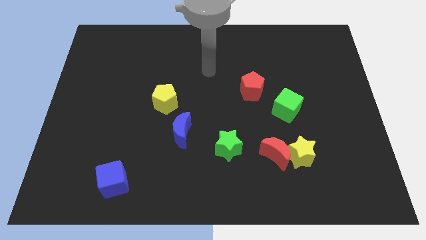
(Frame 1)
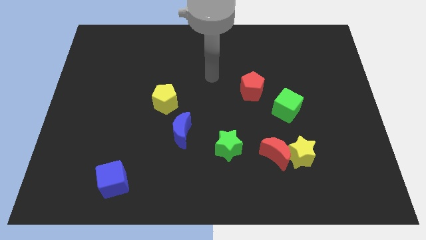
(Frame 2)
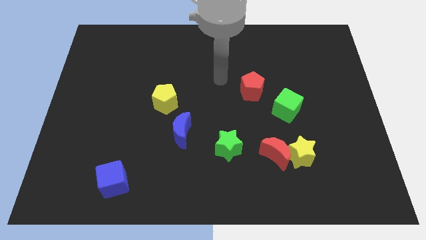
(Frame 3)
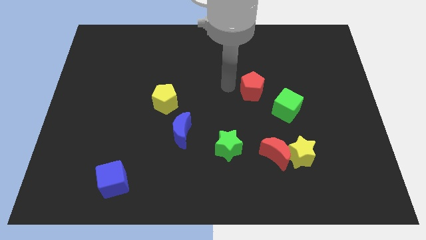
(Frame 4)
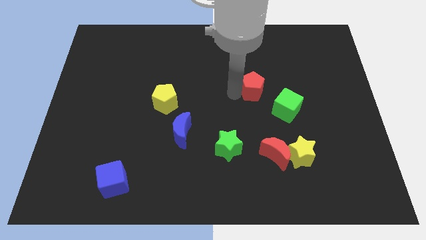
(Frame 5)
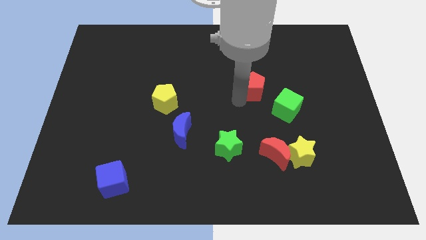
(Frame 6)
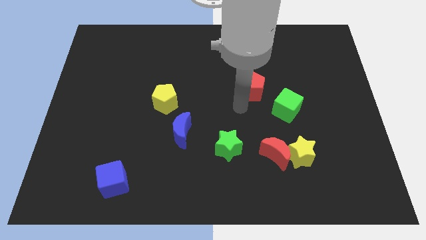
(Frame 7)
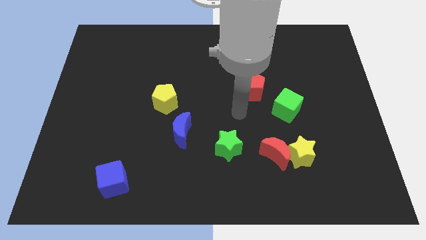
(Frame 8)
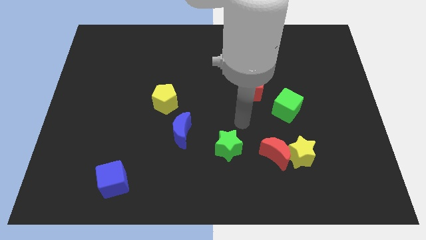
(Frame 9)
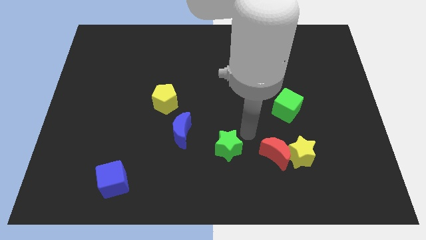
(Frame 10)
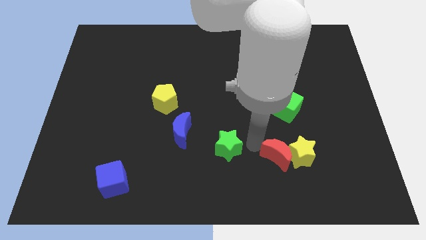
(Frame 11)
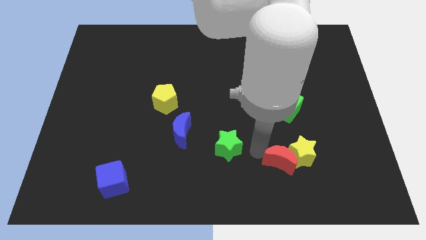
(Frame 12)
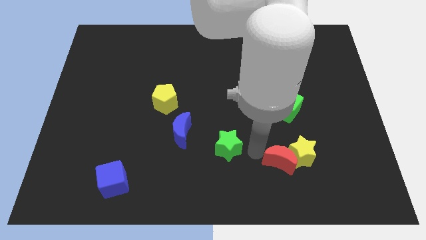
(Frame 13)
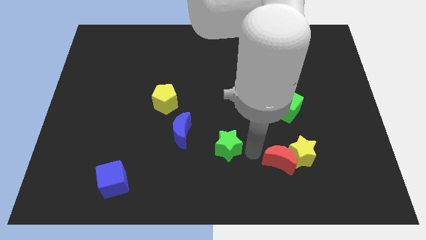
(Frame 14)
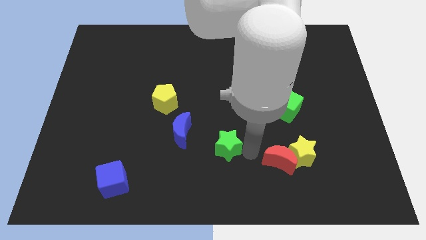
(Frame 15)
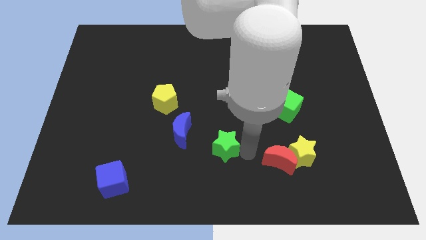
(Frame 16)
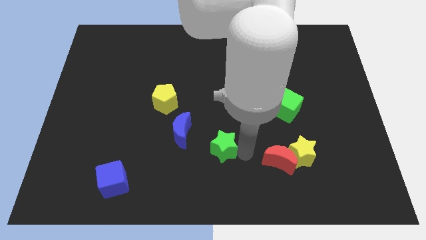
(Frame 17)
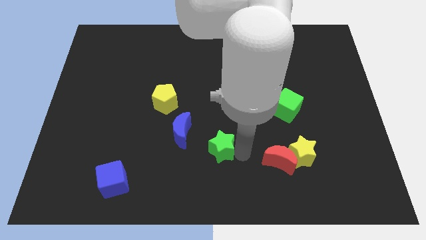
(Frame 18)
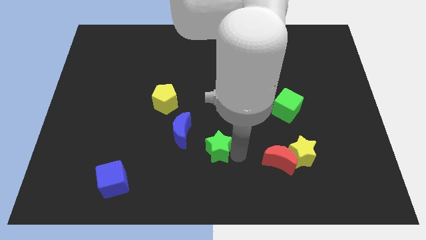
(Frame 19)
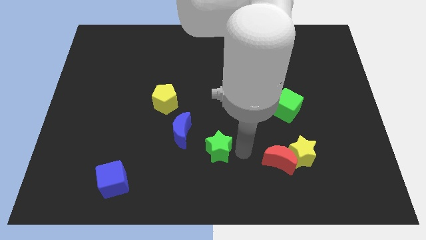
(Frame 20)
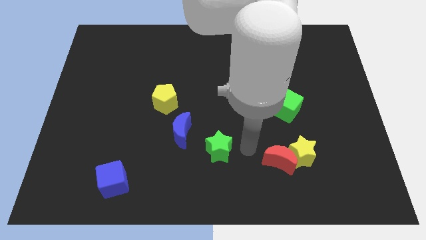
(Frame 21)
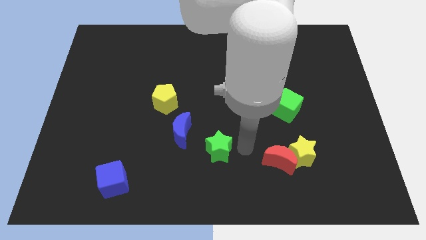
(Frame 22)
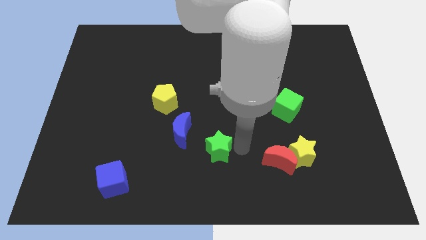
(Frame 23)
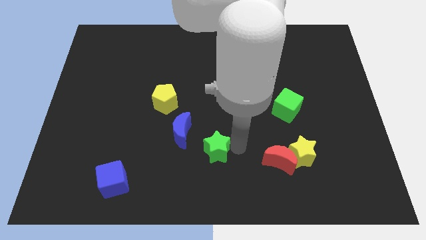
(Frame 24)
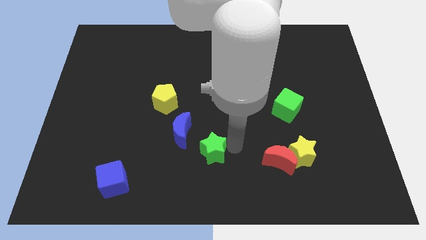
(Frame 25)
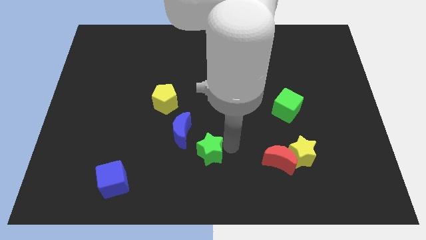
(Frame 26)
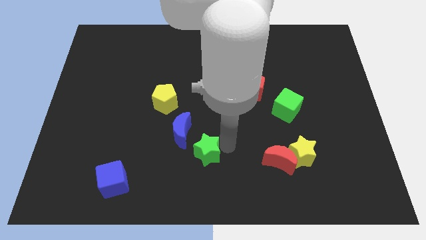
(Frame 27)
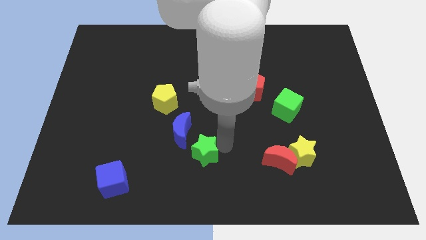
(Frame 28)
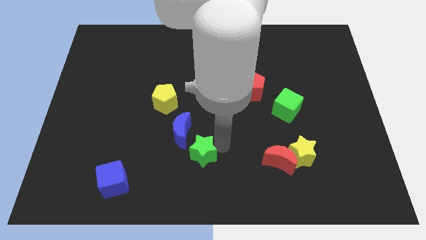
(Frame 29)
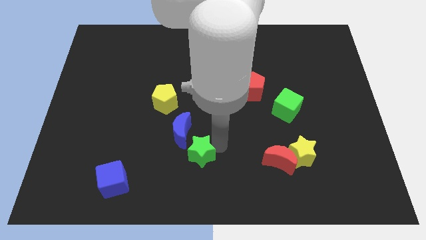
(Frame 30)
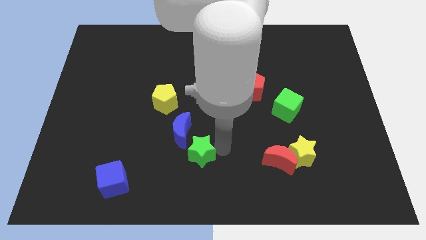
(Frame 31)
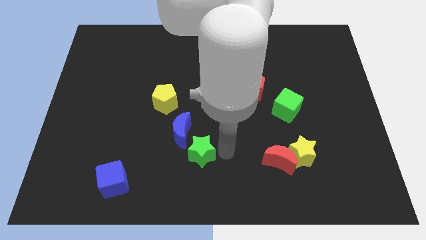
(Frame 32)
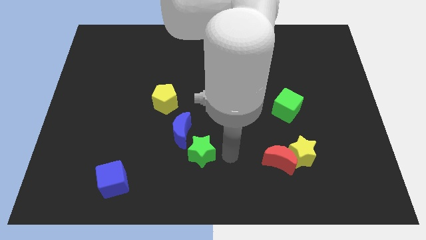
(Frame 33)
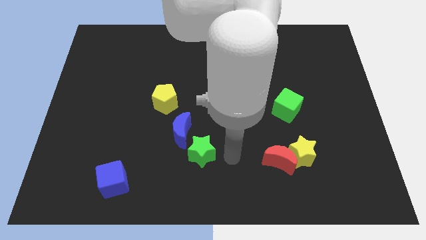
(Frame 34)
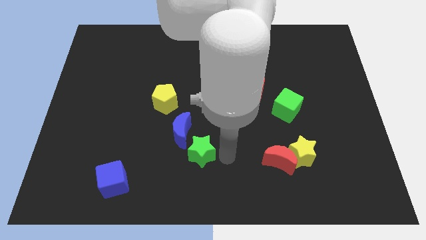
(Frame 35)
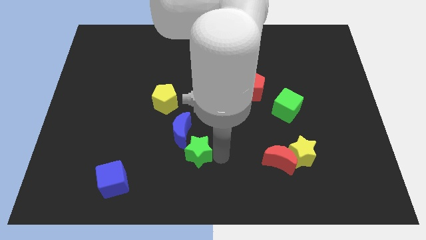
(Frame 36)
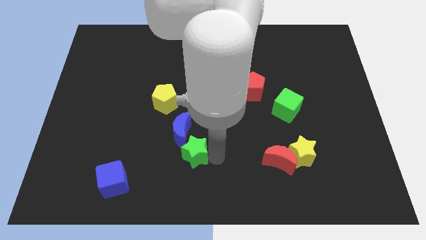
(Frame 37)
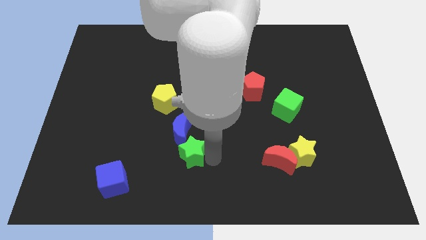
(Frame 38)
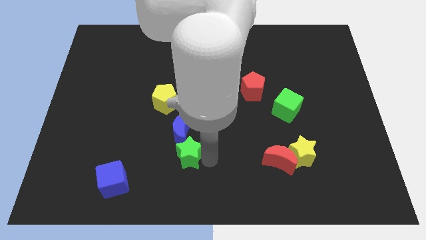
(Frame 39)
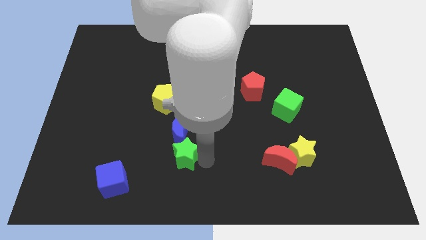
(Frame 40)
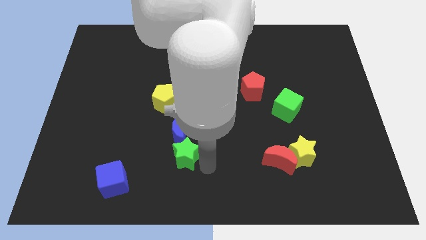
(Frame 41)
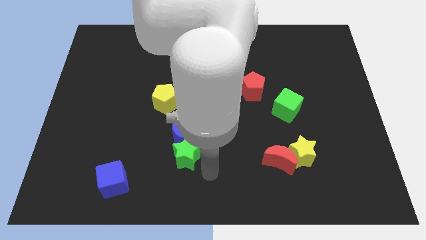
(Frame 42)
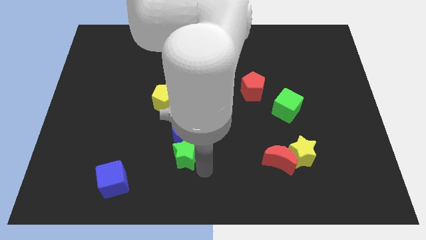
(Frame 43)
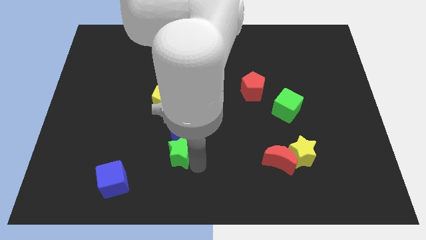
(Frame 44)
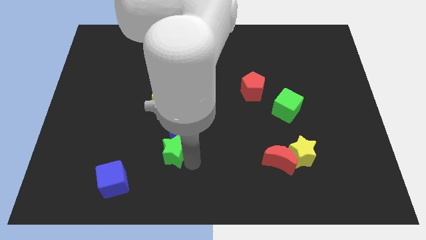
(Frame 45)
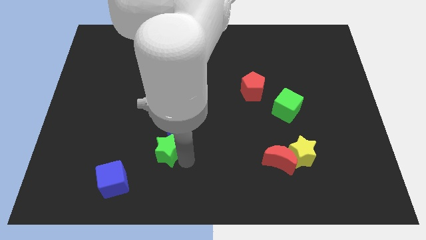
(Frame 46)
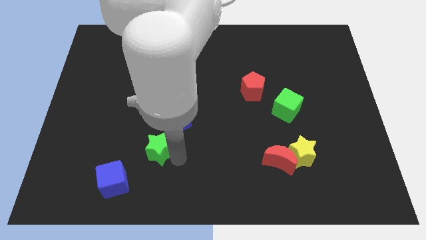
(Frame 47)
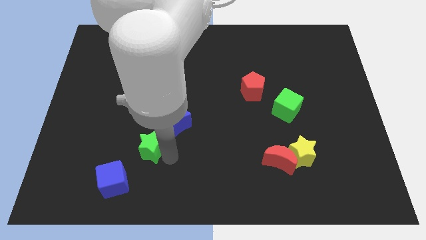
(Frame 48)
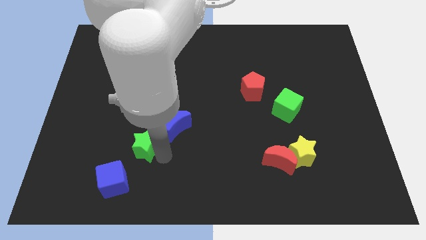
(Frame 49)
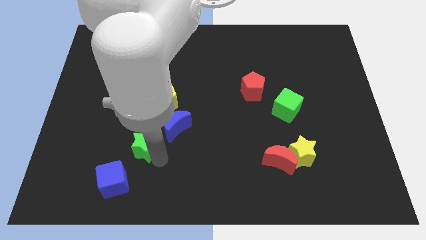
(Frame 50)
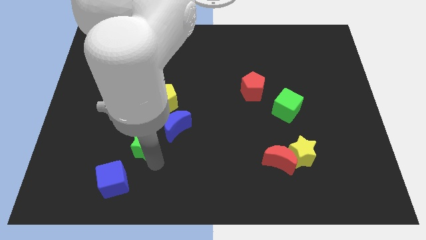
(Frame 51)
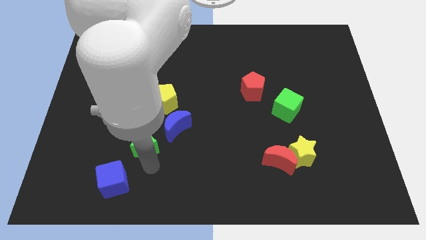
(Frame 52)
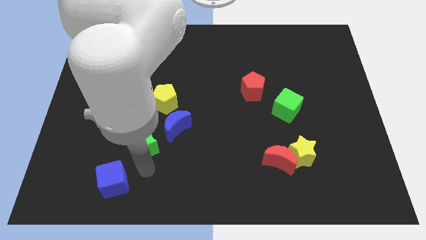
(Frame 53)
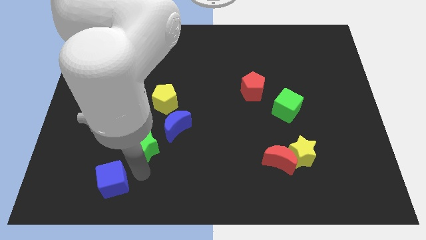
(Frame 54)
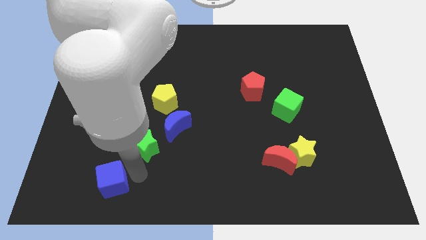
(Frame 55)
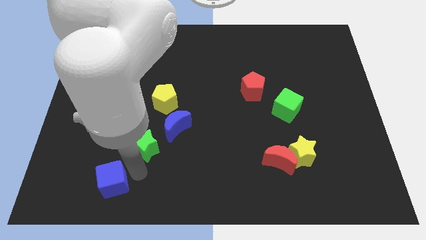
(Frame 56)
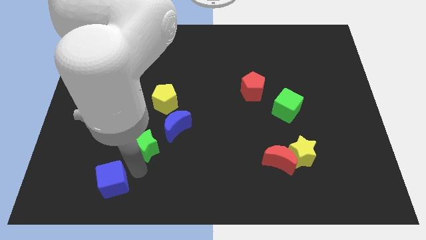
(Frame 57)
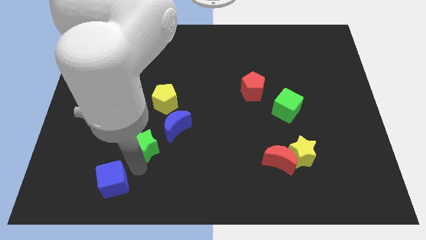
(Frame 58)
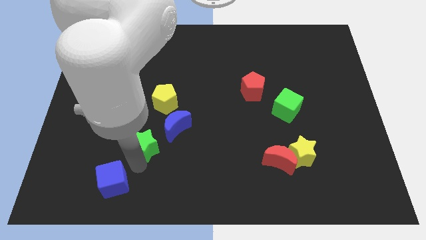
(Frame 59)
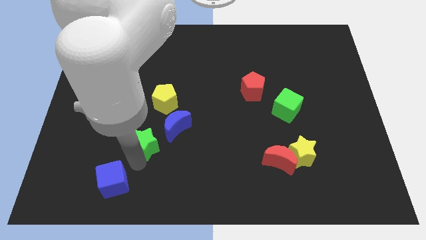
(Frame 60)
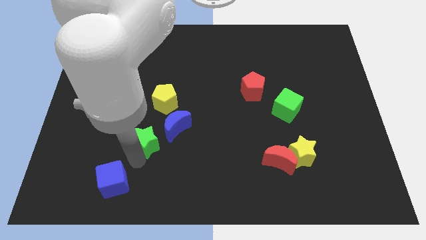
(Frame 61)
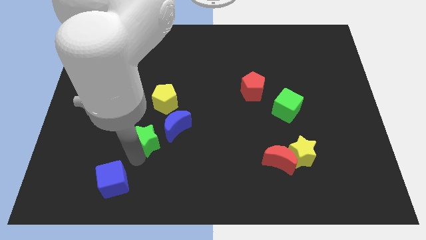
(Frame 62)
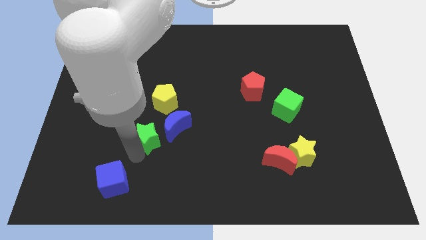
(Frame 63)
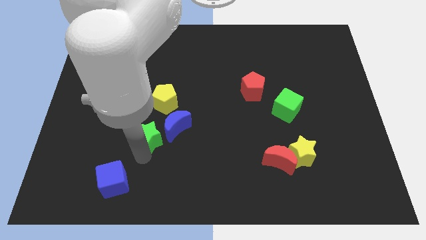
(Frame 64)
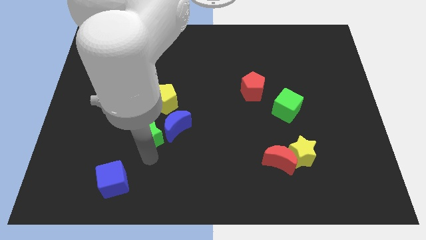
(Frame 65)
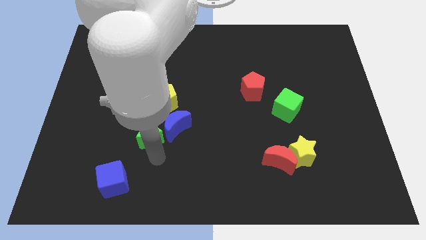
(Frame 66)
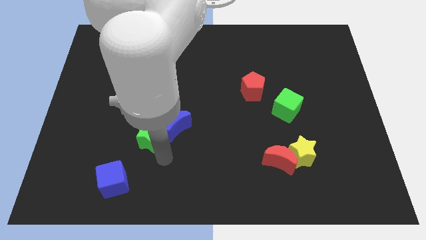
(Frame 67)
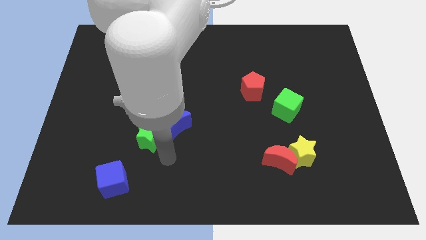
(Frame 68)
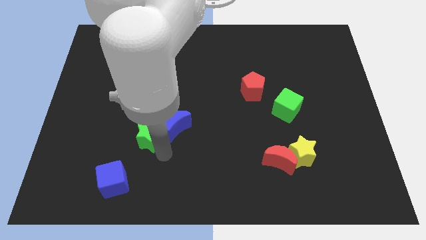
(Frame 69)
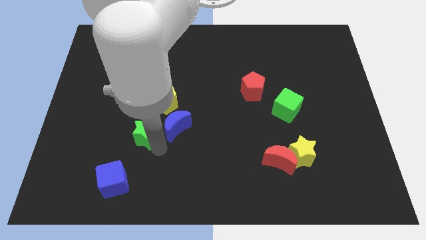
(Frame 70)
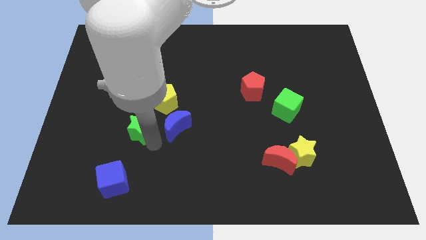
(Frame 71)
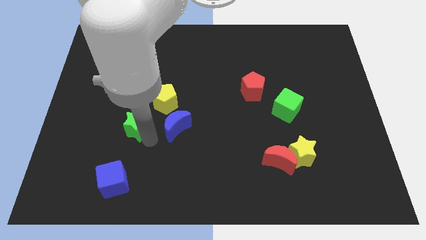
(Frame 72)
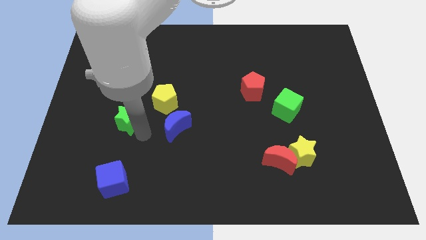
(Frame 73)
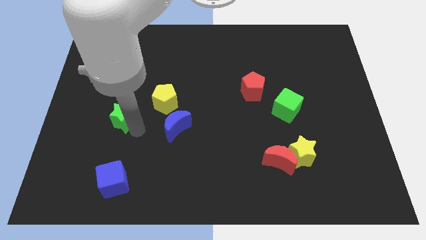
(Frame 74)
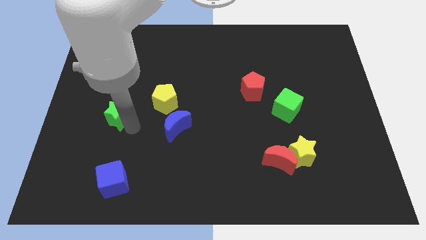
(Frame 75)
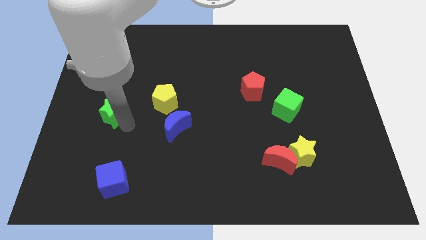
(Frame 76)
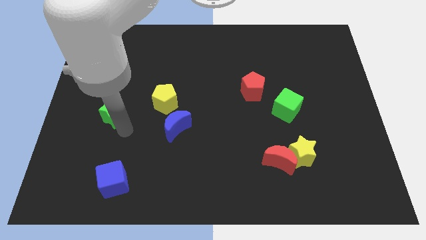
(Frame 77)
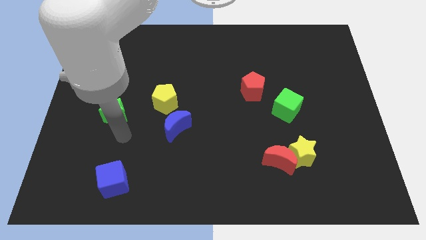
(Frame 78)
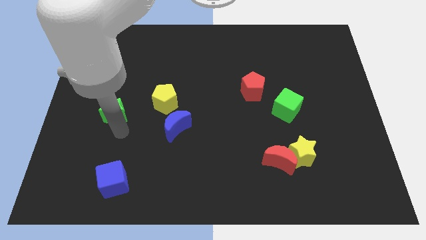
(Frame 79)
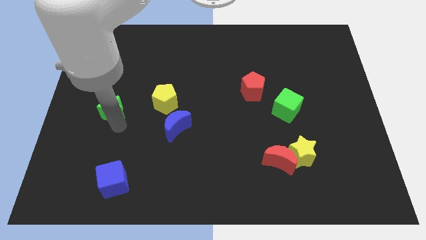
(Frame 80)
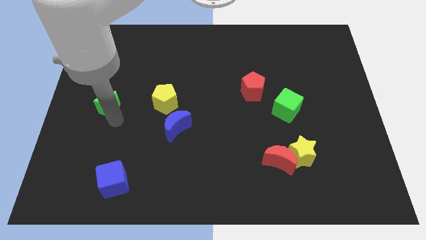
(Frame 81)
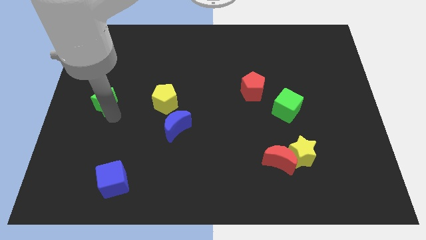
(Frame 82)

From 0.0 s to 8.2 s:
put the green star to the center left
